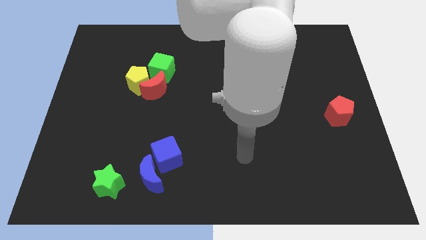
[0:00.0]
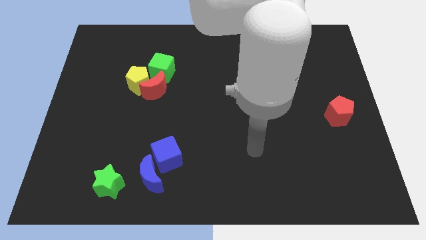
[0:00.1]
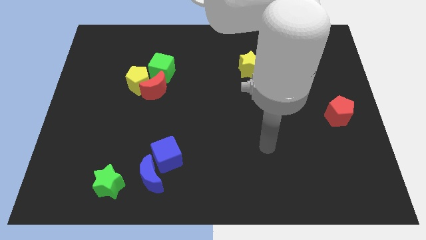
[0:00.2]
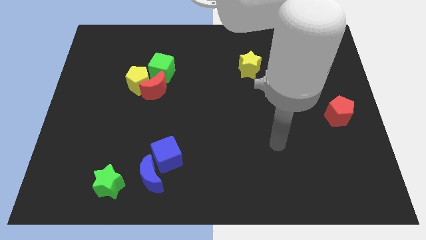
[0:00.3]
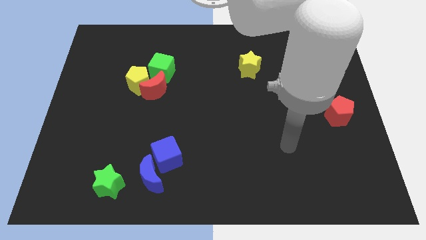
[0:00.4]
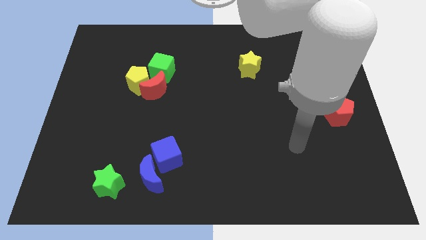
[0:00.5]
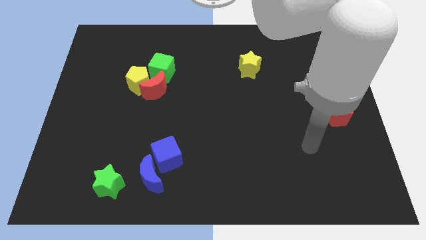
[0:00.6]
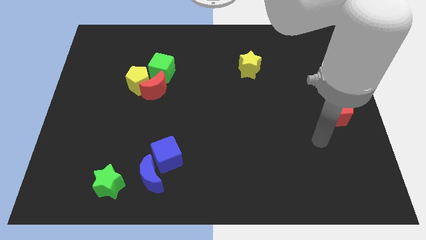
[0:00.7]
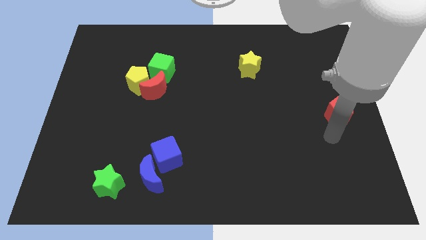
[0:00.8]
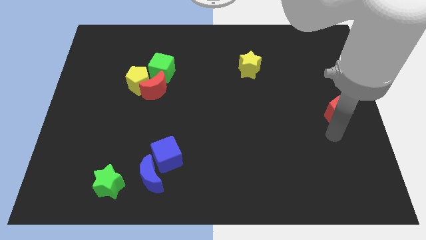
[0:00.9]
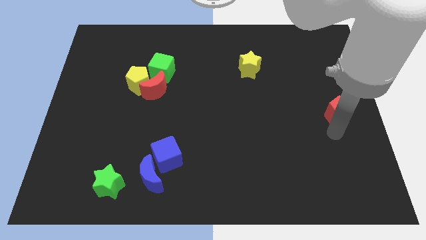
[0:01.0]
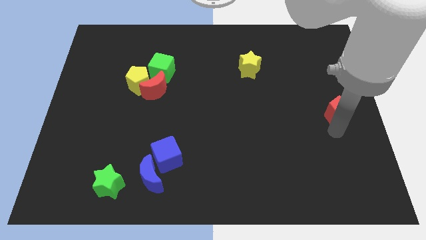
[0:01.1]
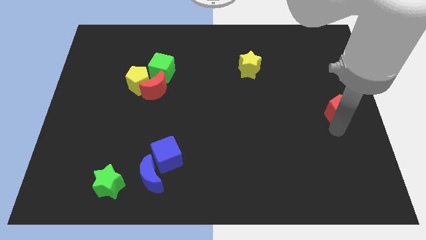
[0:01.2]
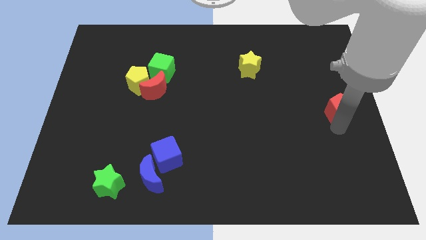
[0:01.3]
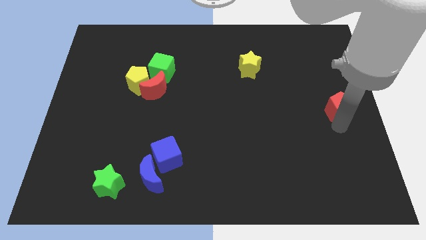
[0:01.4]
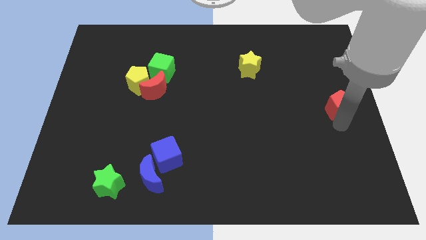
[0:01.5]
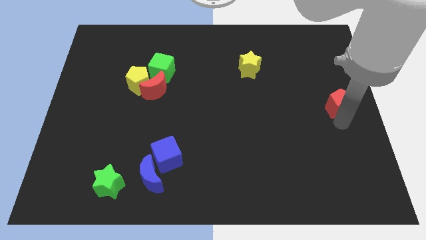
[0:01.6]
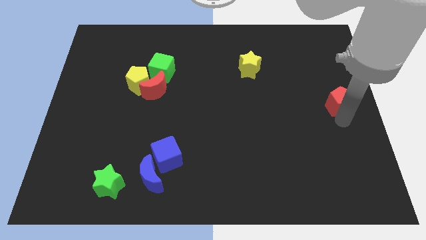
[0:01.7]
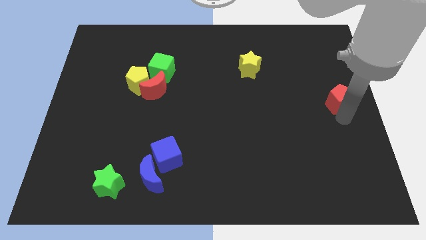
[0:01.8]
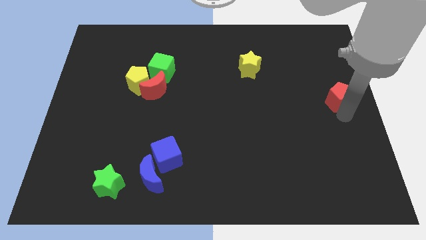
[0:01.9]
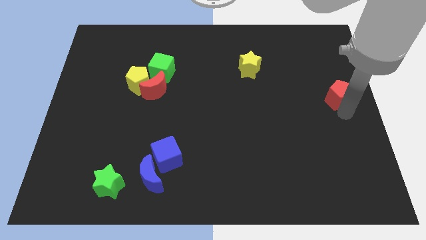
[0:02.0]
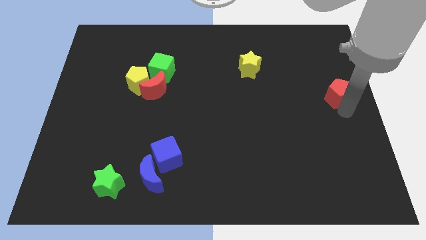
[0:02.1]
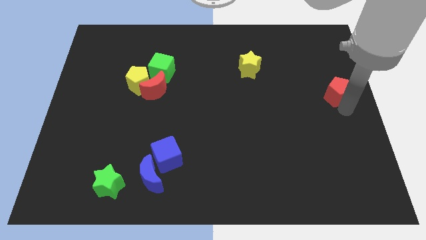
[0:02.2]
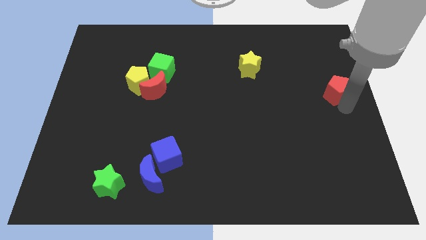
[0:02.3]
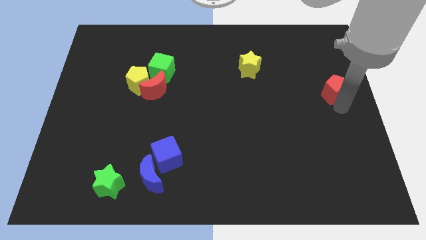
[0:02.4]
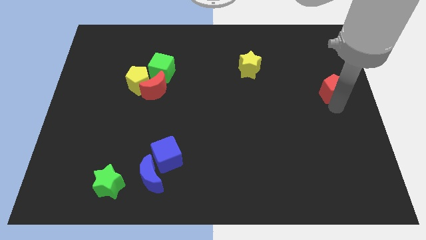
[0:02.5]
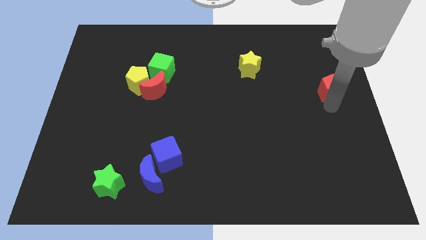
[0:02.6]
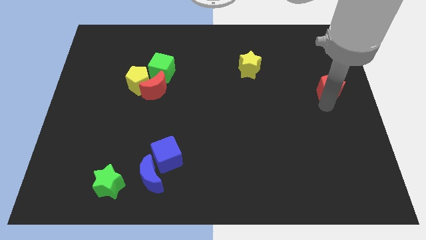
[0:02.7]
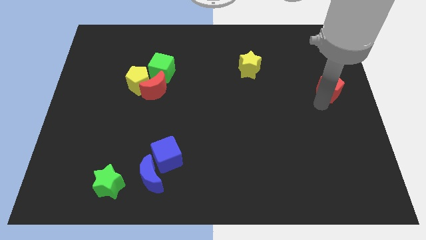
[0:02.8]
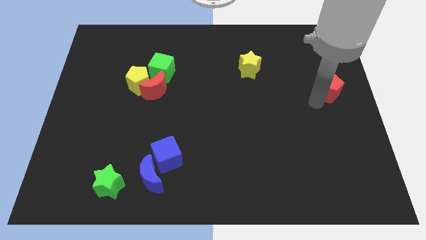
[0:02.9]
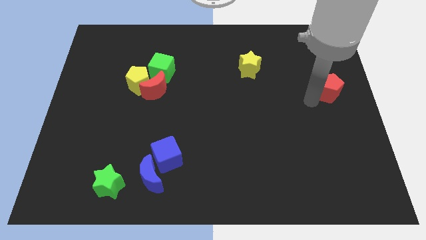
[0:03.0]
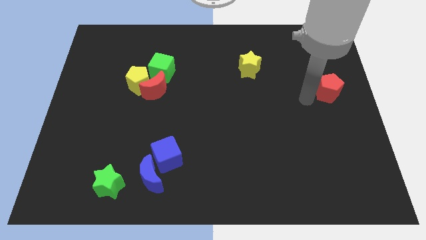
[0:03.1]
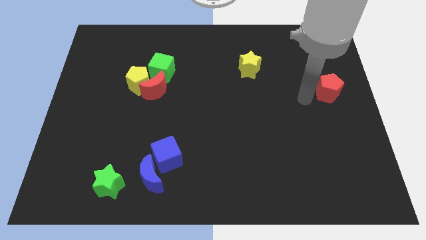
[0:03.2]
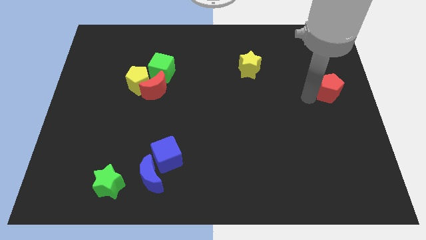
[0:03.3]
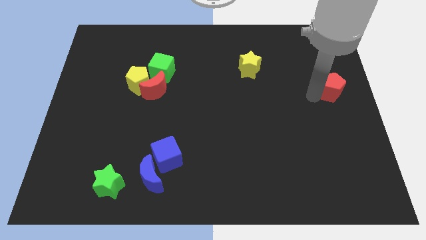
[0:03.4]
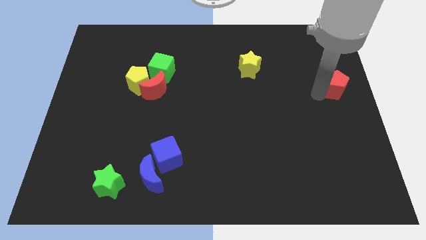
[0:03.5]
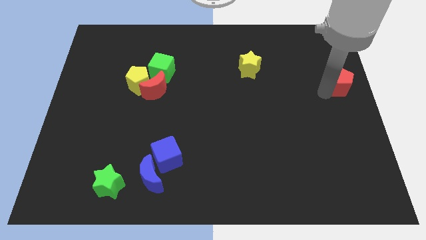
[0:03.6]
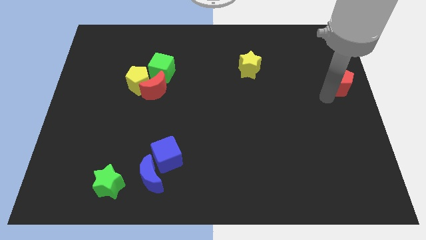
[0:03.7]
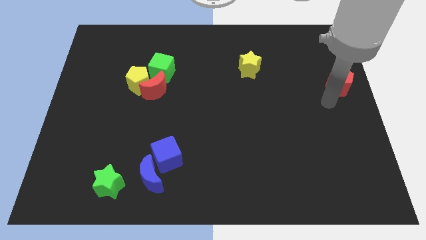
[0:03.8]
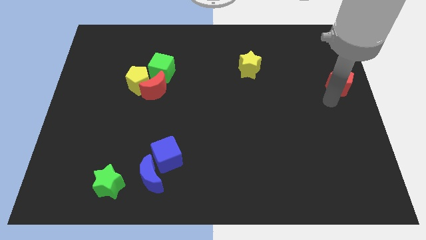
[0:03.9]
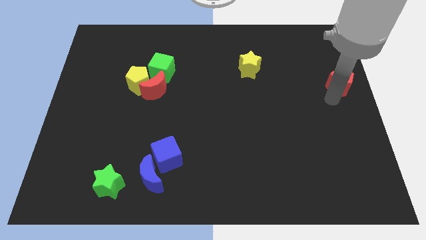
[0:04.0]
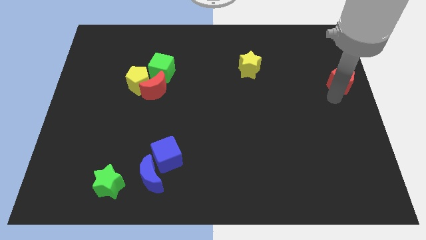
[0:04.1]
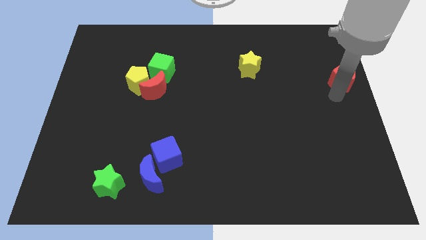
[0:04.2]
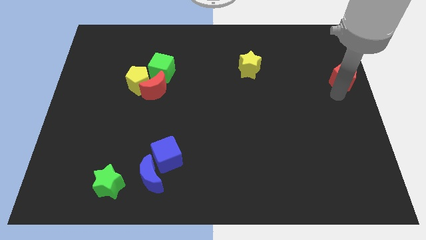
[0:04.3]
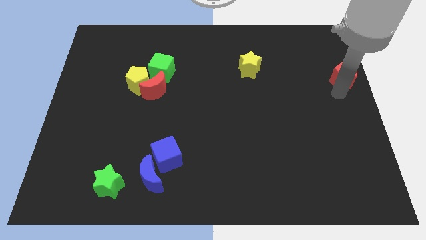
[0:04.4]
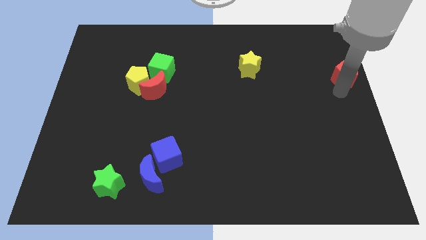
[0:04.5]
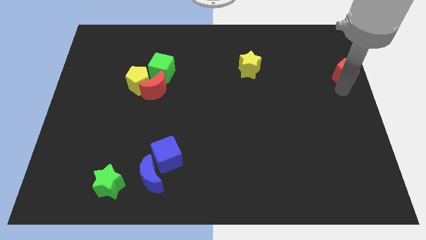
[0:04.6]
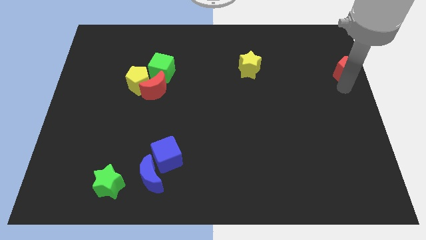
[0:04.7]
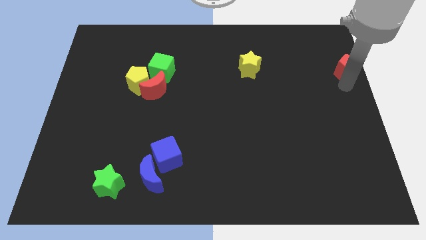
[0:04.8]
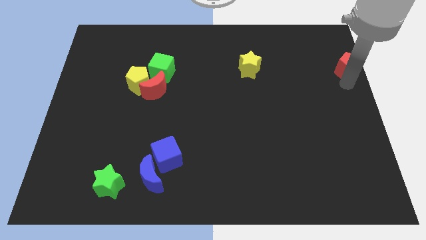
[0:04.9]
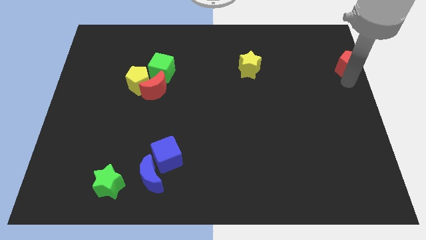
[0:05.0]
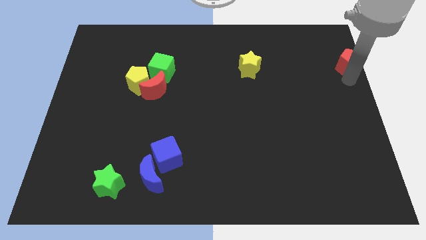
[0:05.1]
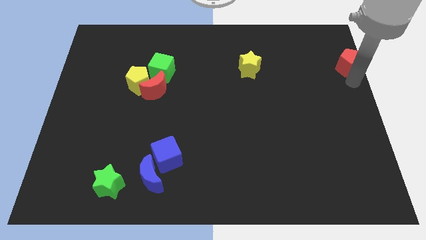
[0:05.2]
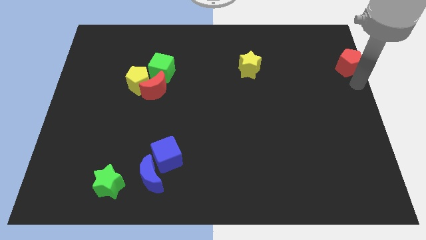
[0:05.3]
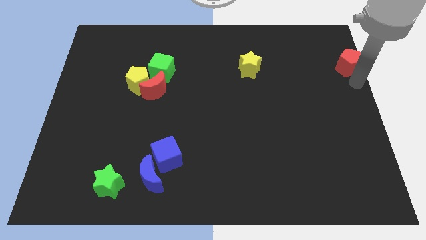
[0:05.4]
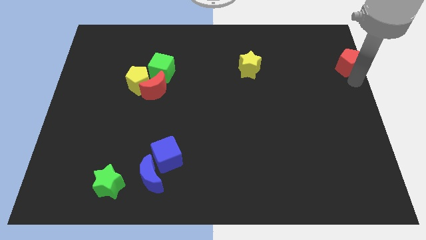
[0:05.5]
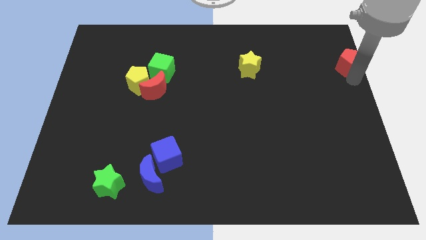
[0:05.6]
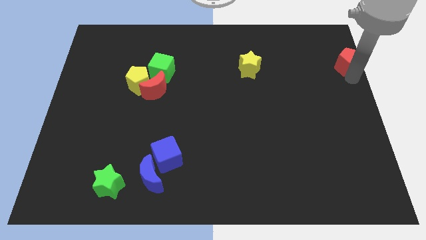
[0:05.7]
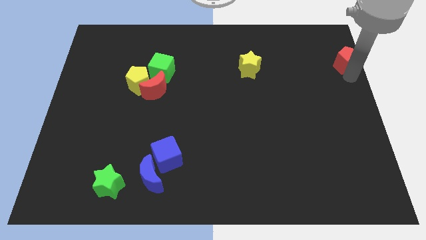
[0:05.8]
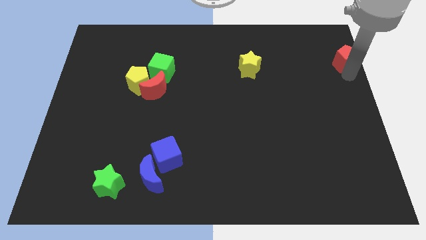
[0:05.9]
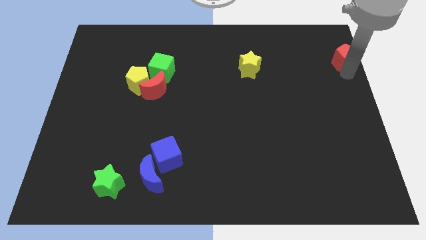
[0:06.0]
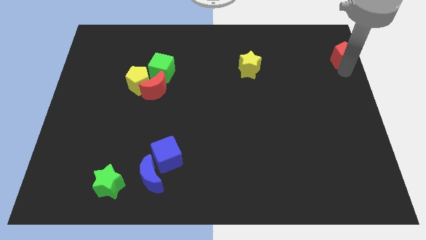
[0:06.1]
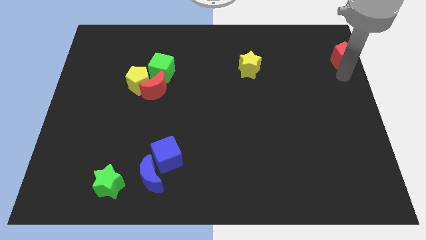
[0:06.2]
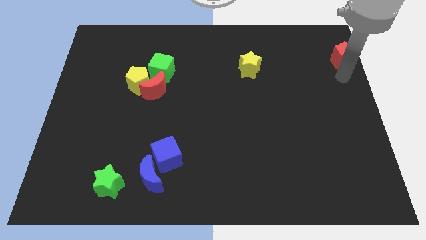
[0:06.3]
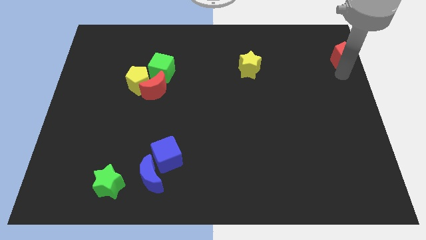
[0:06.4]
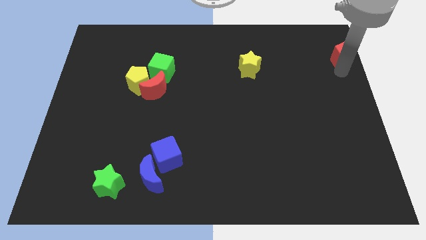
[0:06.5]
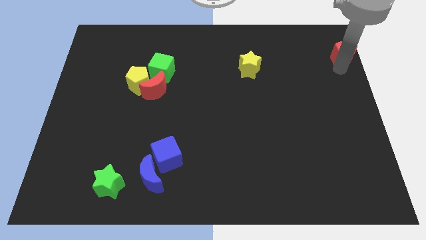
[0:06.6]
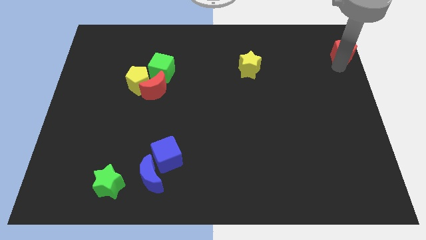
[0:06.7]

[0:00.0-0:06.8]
put the red pentagon to the upper right corner
